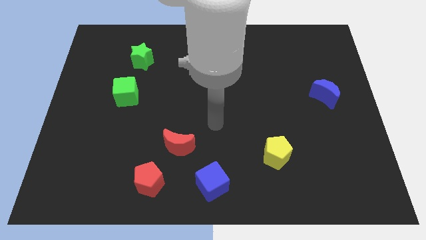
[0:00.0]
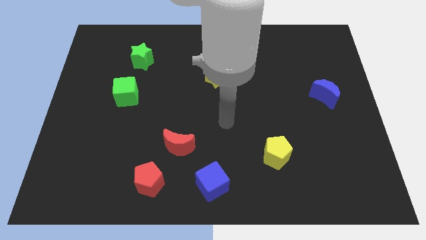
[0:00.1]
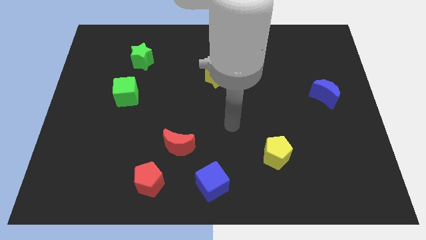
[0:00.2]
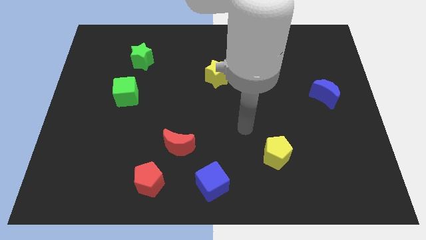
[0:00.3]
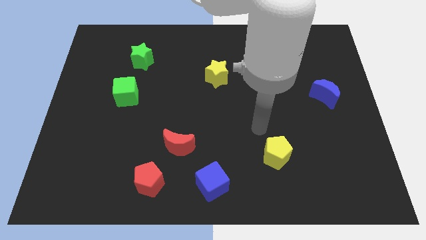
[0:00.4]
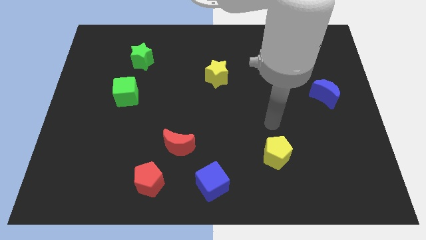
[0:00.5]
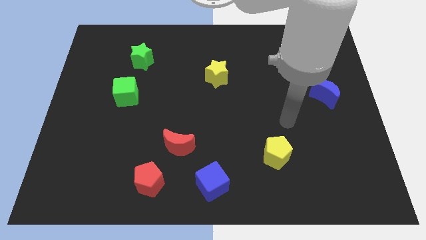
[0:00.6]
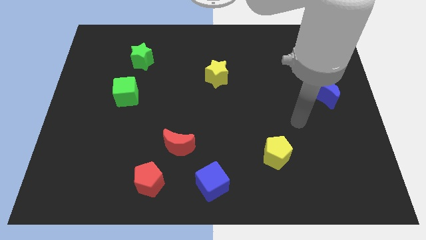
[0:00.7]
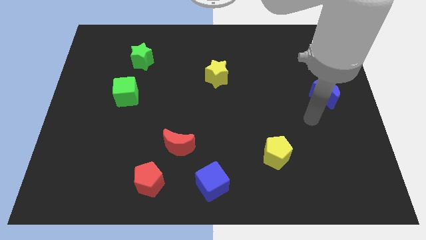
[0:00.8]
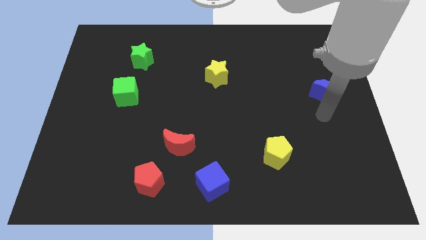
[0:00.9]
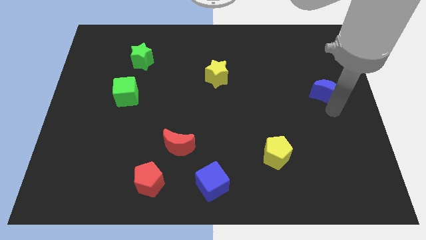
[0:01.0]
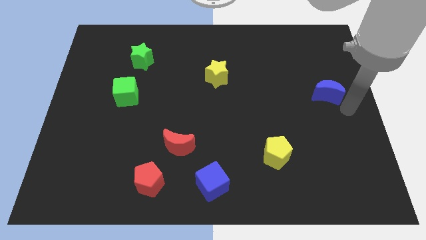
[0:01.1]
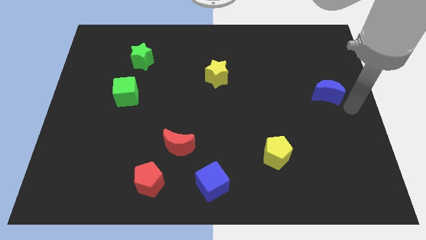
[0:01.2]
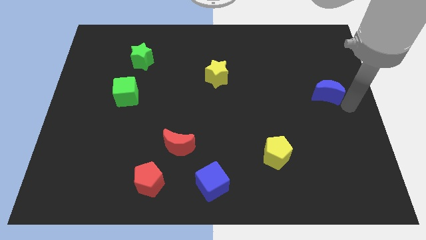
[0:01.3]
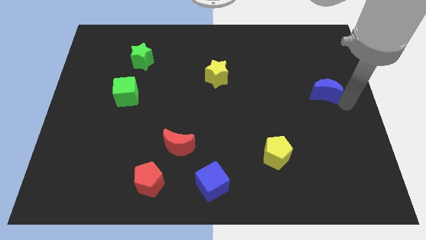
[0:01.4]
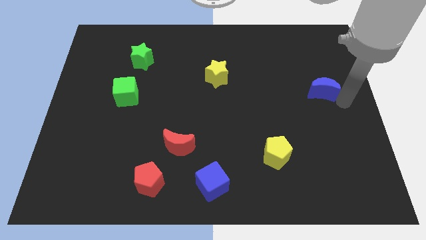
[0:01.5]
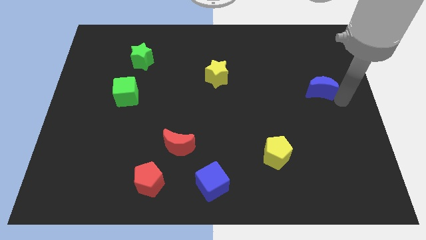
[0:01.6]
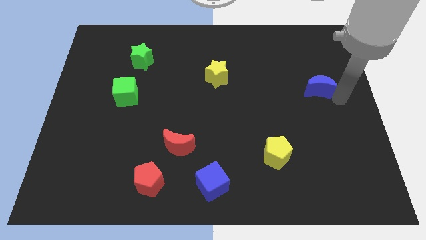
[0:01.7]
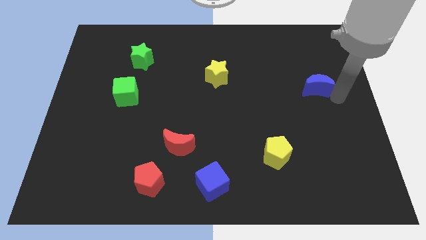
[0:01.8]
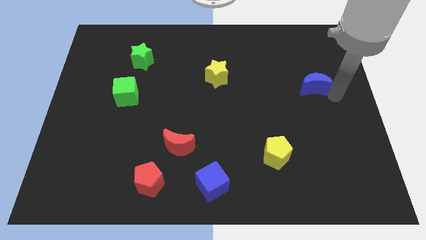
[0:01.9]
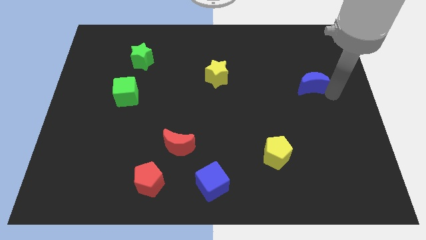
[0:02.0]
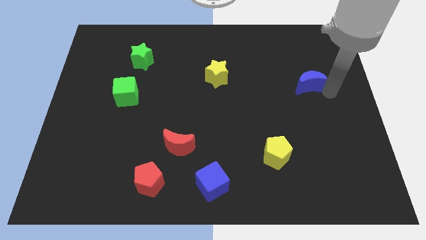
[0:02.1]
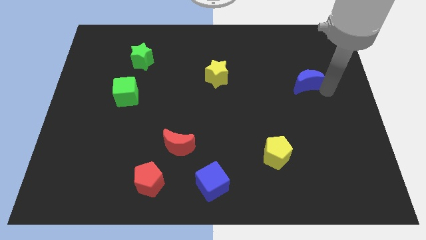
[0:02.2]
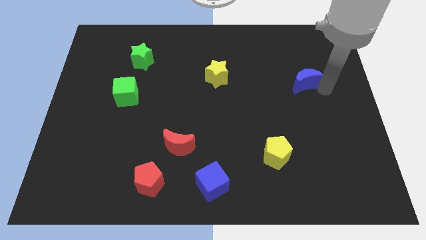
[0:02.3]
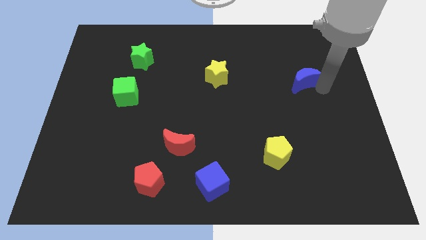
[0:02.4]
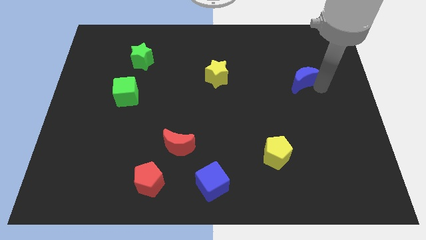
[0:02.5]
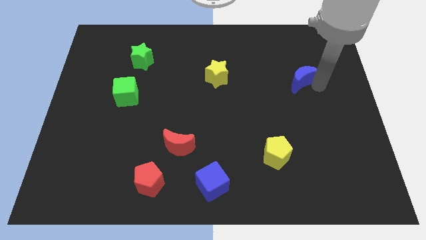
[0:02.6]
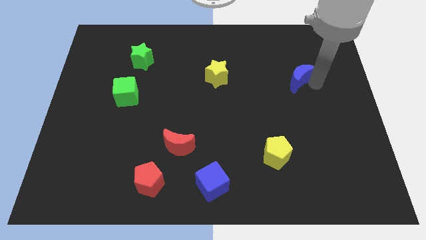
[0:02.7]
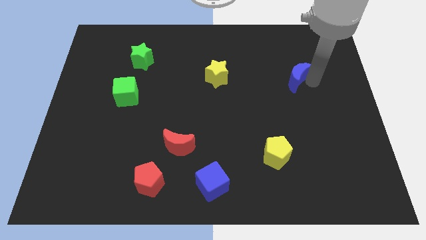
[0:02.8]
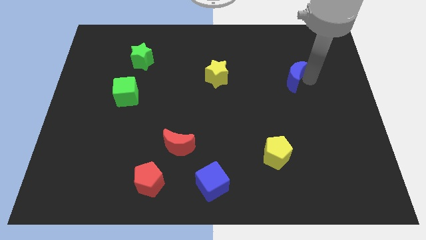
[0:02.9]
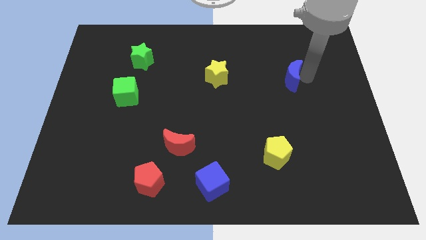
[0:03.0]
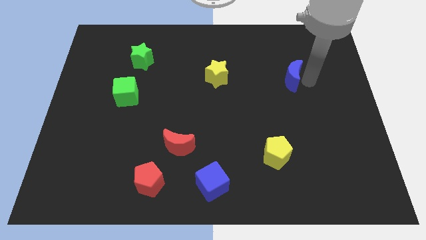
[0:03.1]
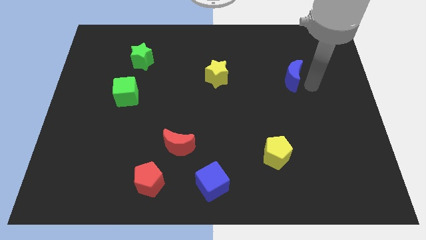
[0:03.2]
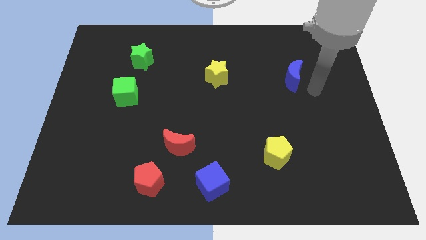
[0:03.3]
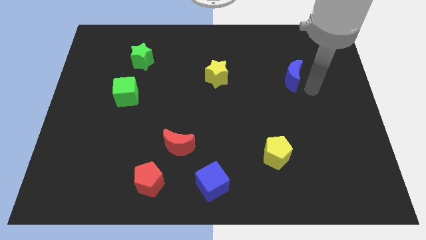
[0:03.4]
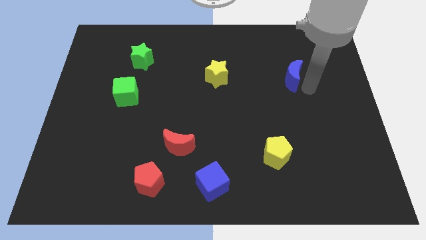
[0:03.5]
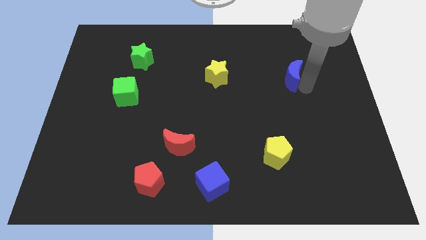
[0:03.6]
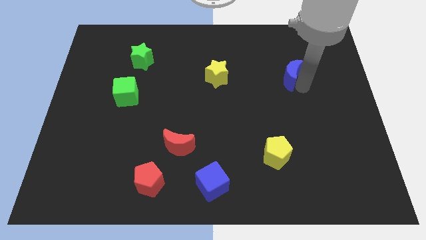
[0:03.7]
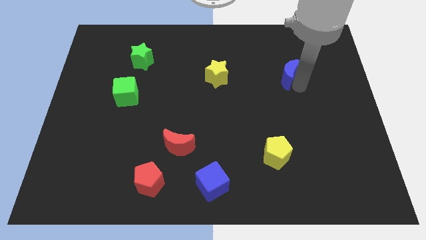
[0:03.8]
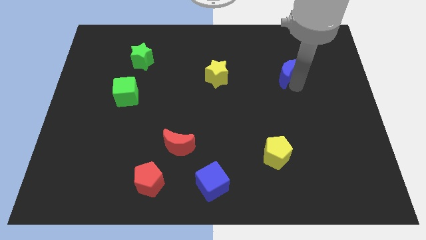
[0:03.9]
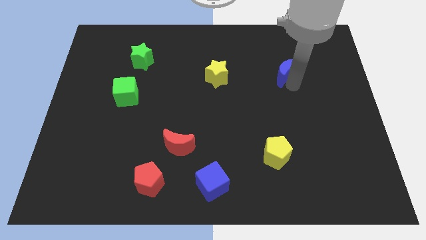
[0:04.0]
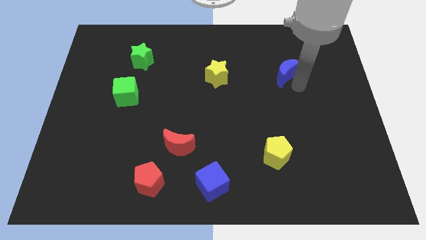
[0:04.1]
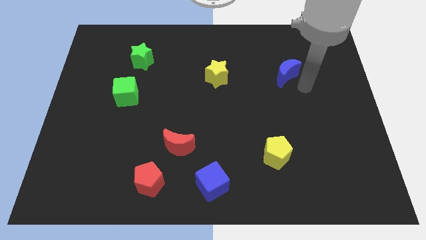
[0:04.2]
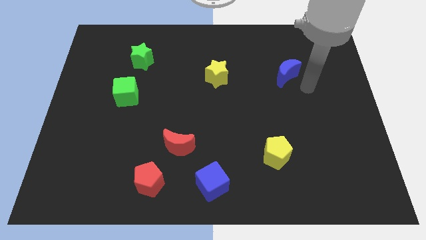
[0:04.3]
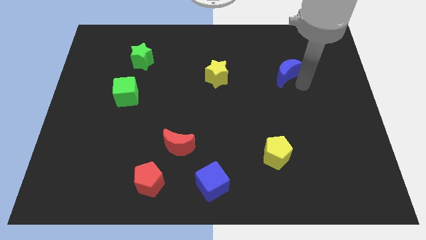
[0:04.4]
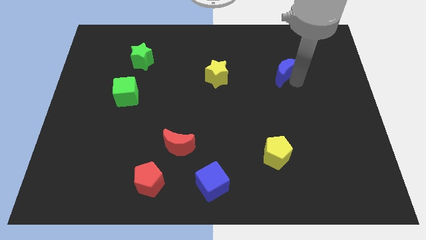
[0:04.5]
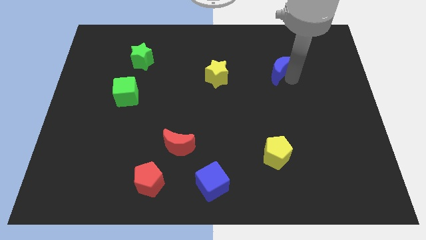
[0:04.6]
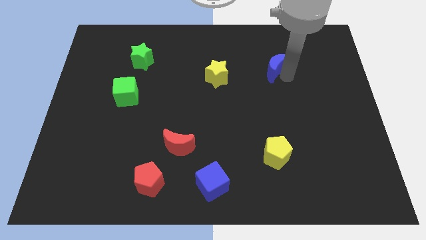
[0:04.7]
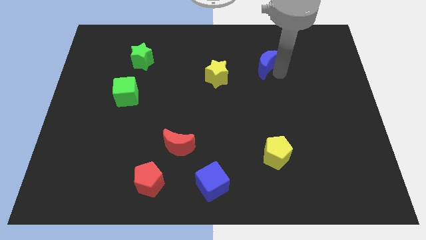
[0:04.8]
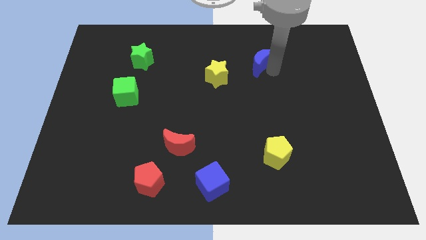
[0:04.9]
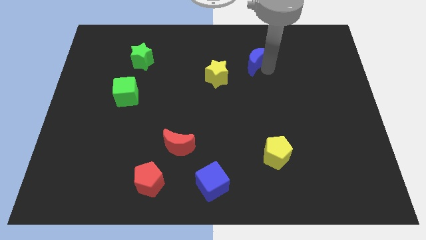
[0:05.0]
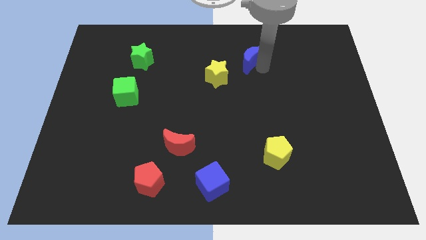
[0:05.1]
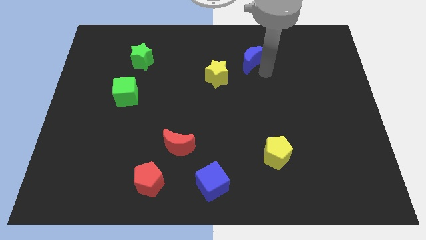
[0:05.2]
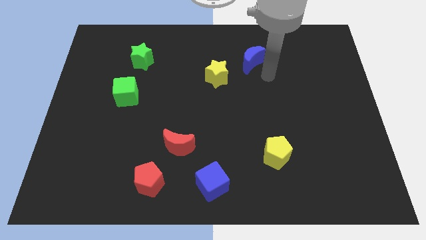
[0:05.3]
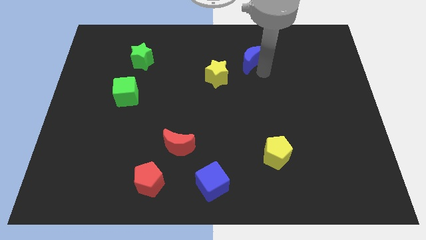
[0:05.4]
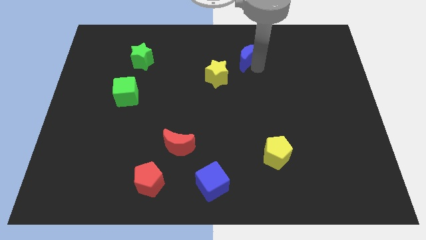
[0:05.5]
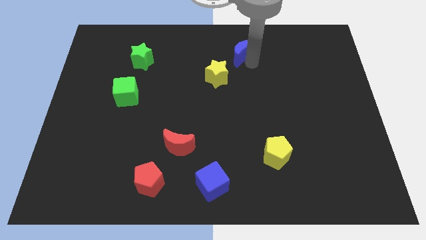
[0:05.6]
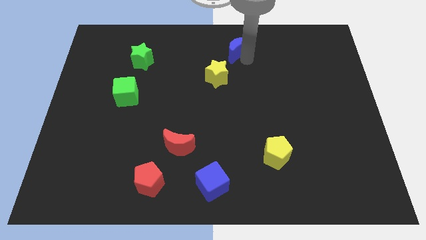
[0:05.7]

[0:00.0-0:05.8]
move the blue moon to the towards your base

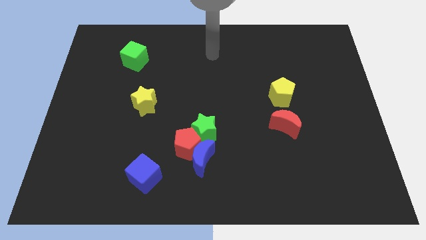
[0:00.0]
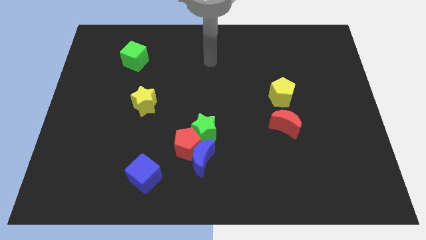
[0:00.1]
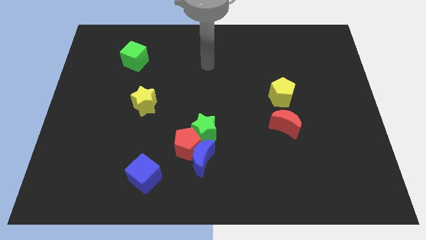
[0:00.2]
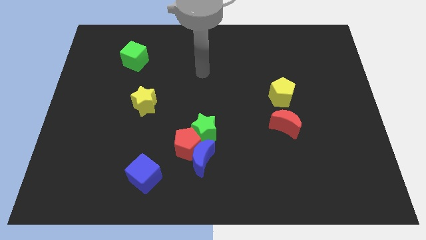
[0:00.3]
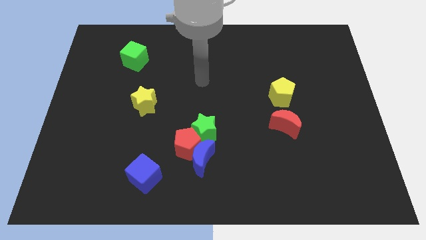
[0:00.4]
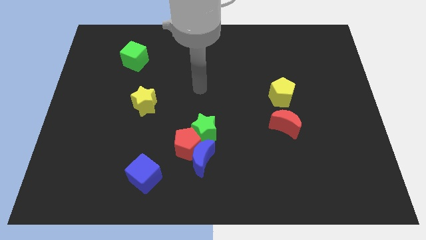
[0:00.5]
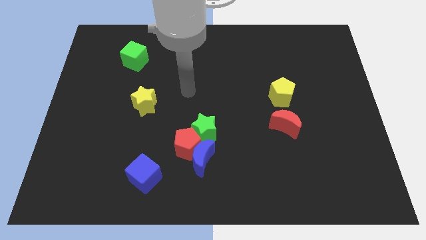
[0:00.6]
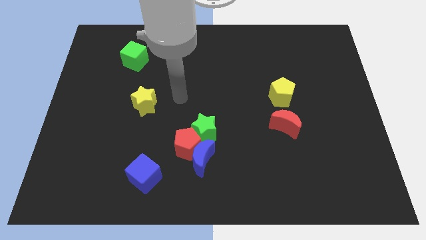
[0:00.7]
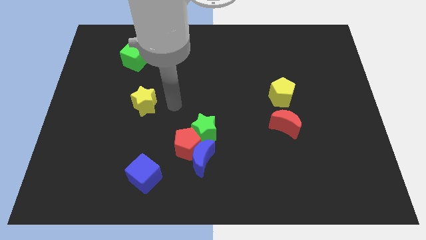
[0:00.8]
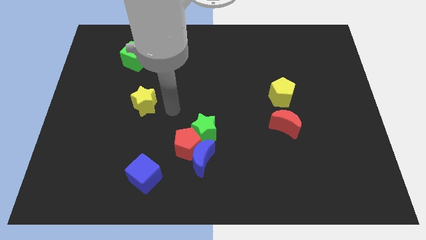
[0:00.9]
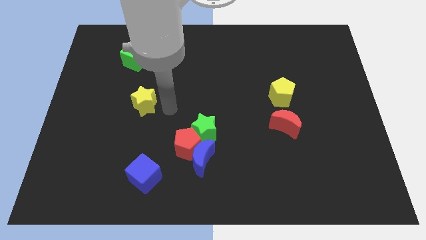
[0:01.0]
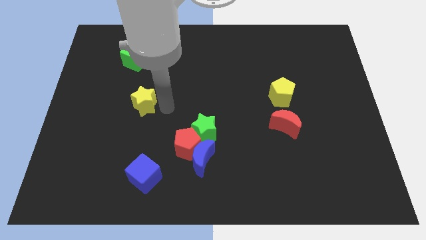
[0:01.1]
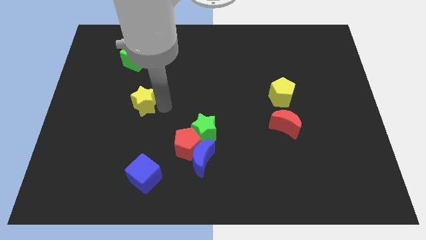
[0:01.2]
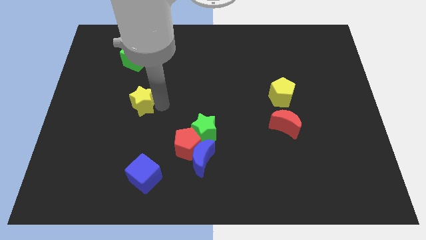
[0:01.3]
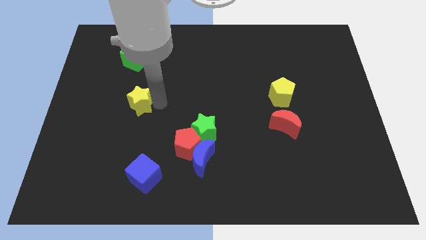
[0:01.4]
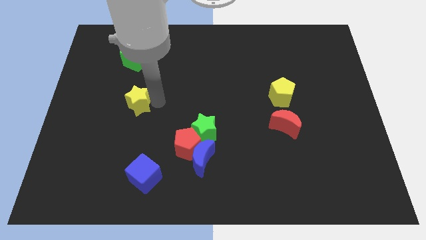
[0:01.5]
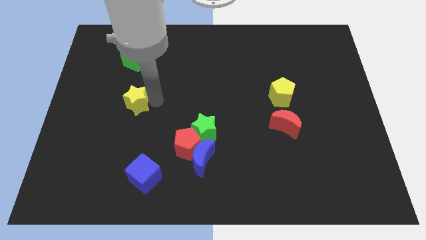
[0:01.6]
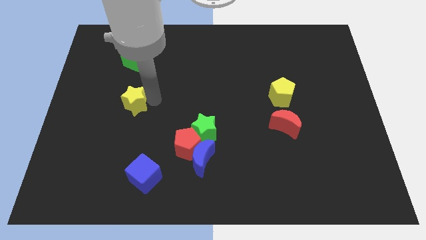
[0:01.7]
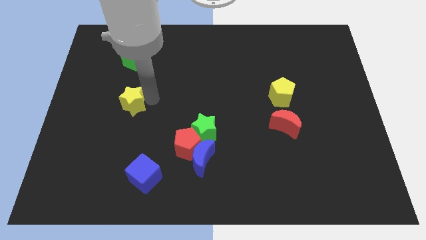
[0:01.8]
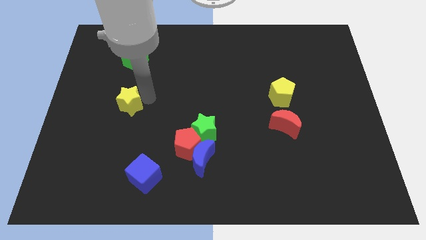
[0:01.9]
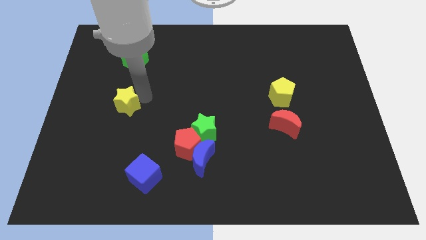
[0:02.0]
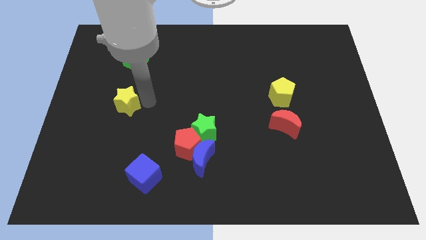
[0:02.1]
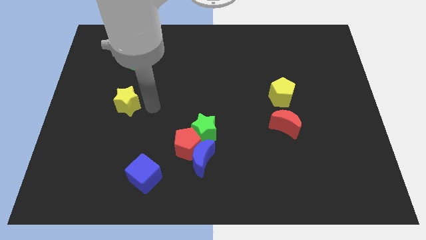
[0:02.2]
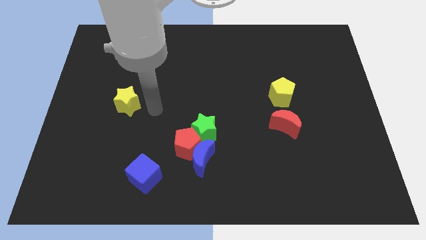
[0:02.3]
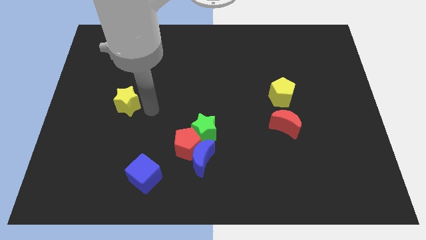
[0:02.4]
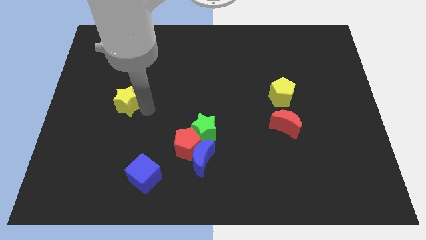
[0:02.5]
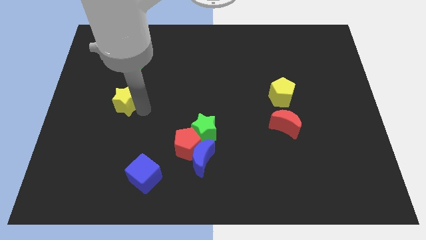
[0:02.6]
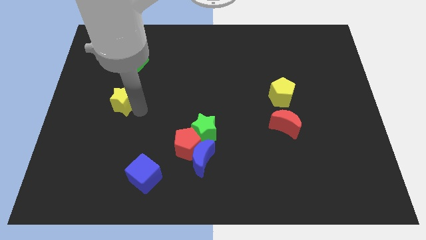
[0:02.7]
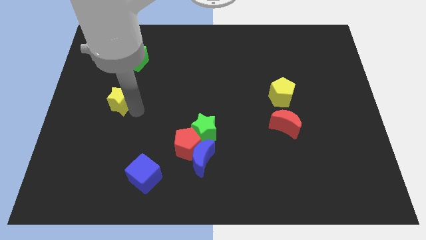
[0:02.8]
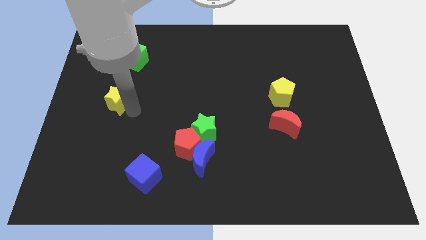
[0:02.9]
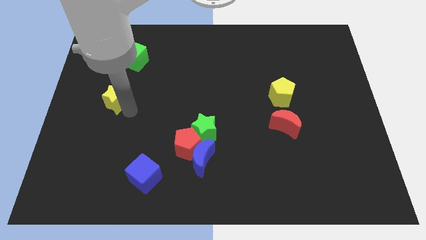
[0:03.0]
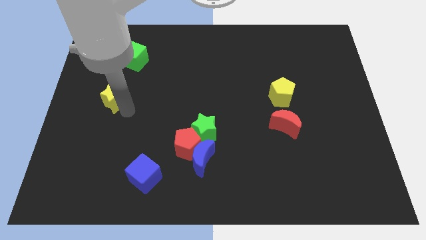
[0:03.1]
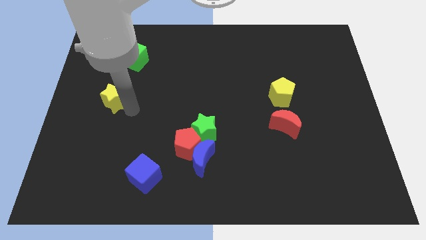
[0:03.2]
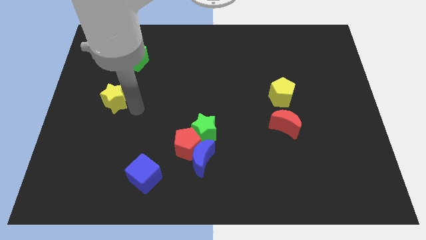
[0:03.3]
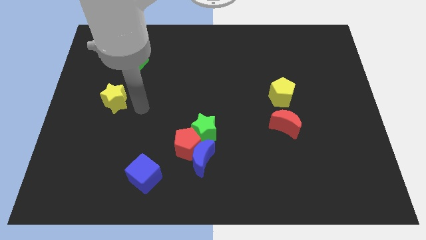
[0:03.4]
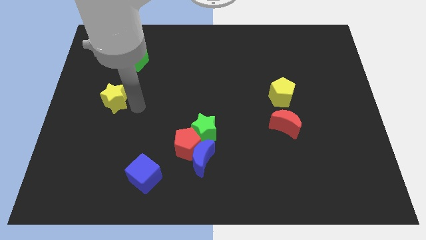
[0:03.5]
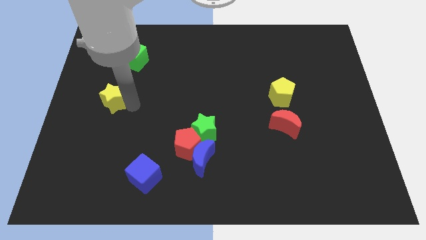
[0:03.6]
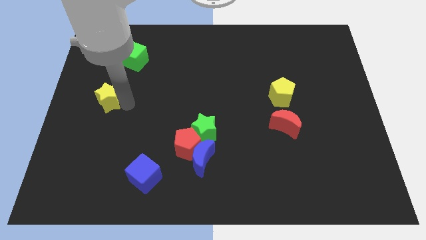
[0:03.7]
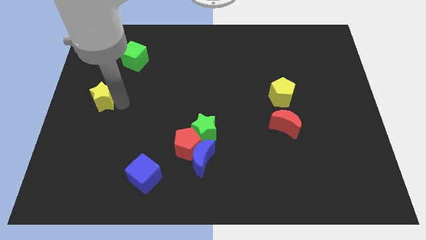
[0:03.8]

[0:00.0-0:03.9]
move the yellow star to the left side
